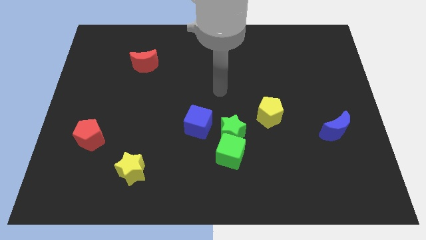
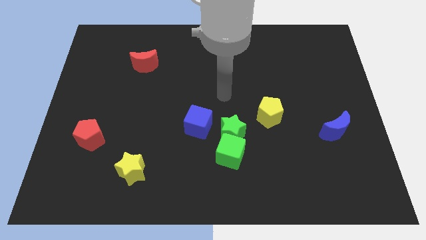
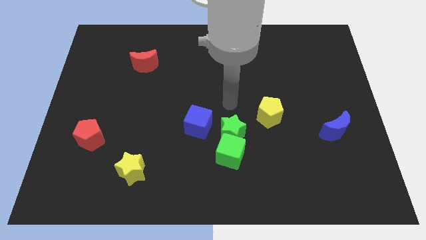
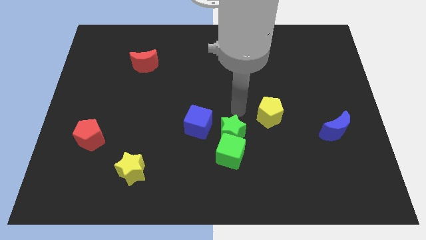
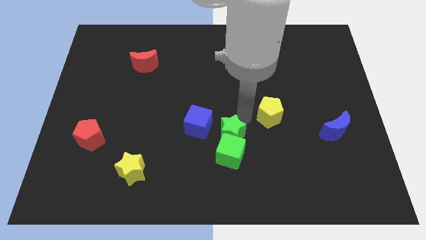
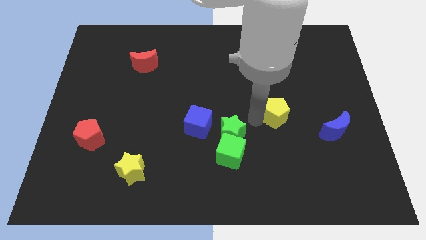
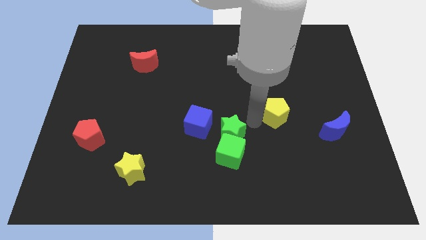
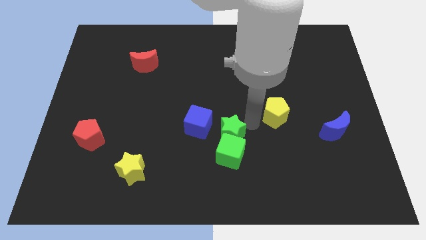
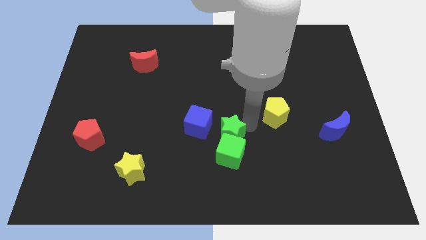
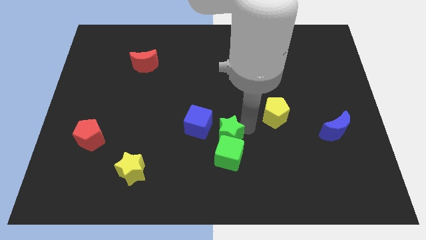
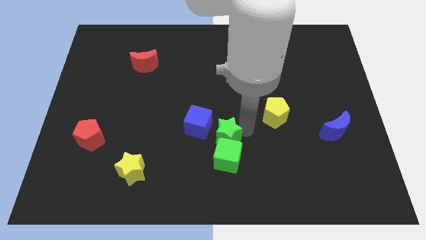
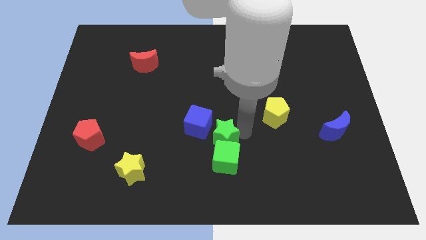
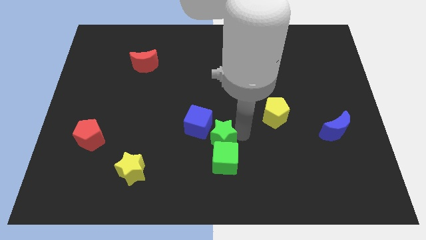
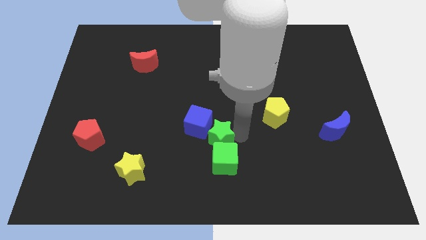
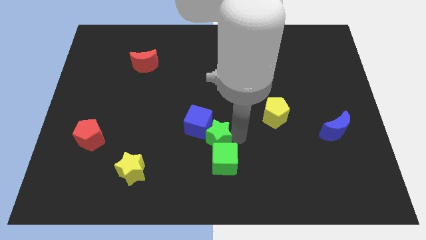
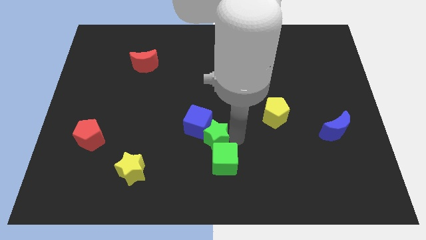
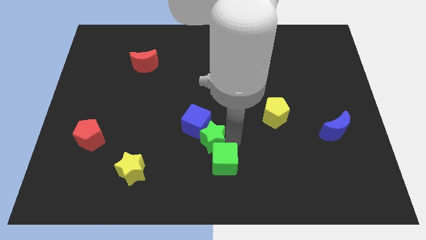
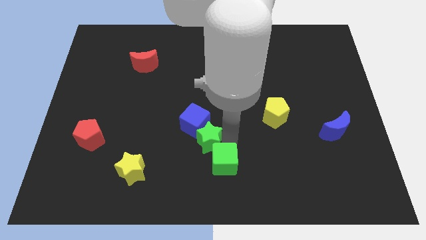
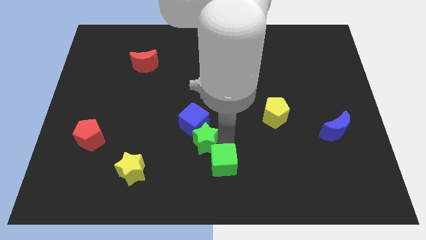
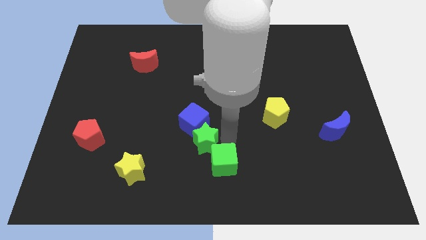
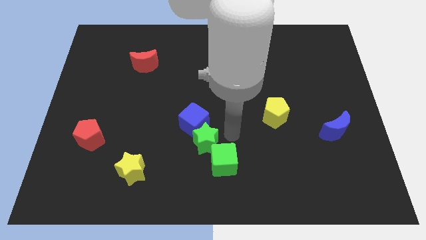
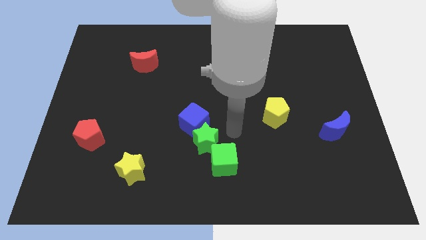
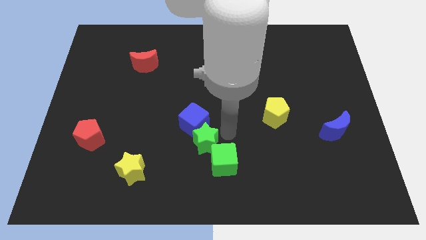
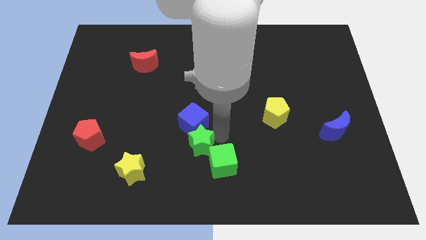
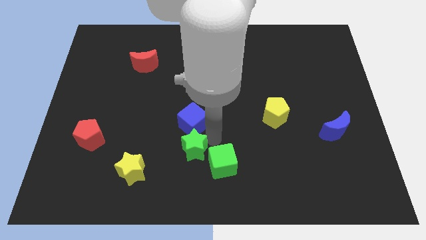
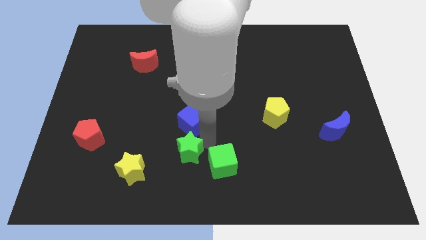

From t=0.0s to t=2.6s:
pull the green star apart from the green cube, blue cube, and yellow pentagon

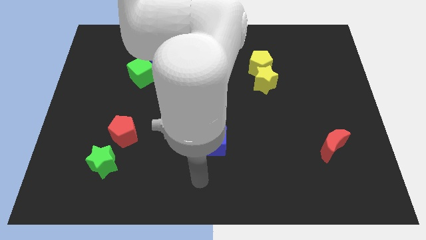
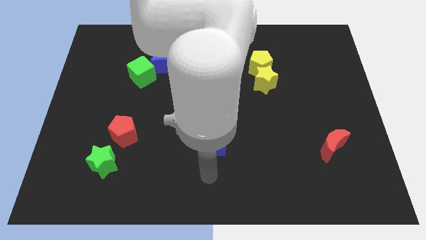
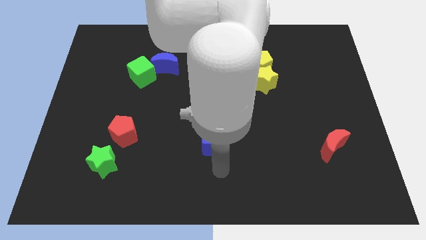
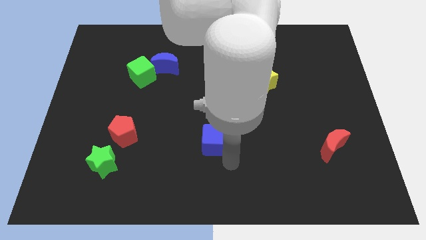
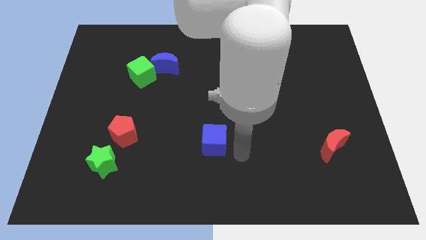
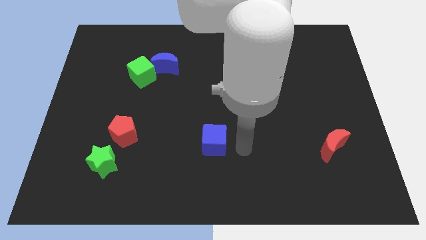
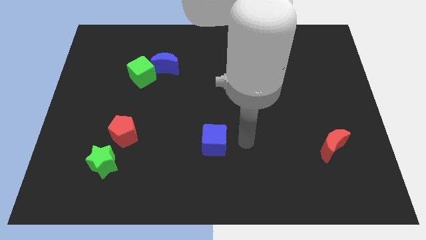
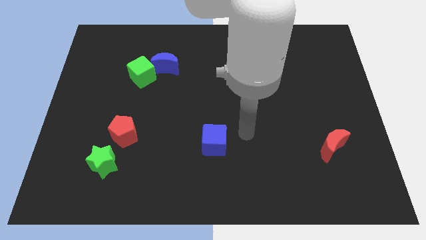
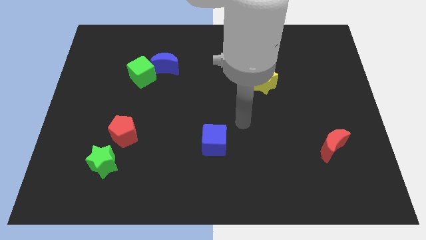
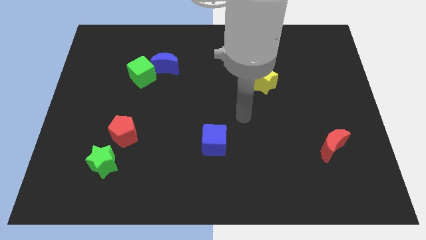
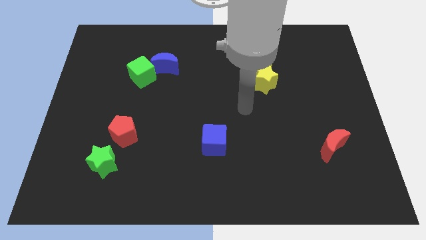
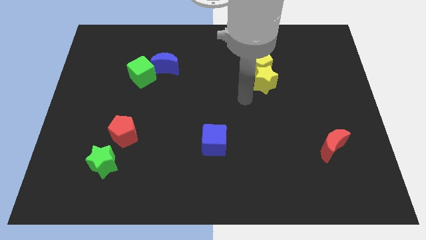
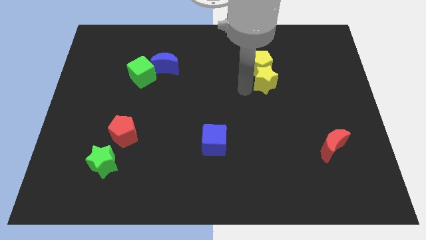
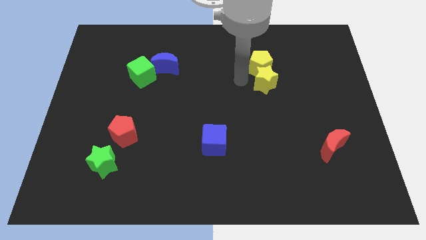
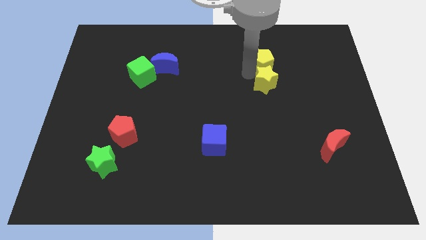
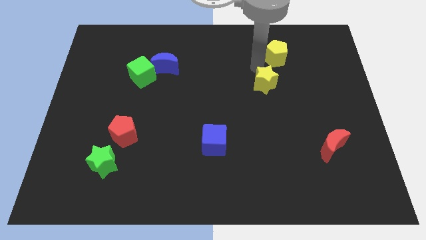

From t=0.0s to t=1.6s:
move the yellow star away from the yellow pentagon

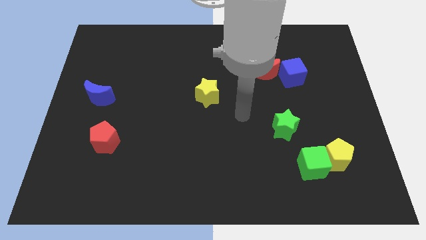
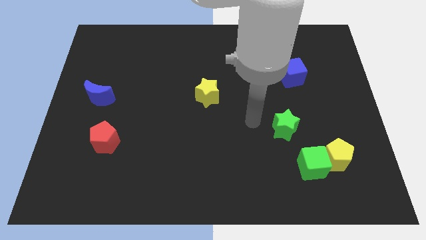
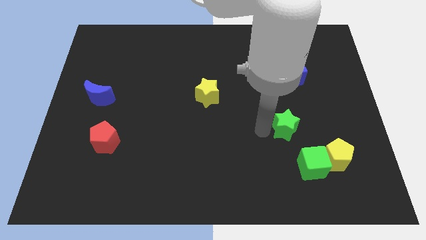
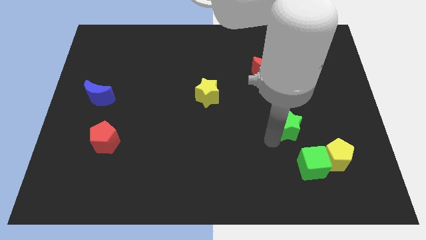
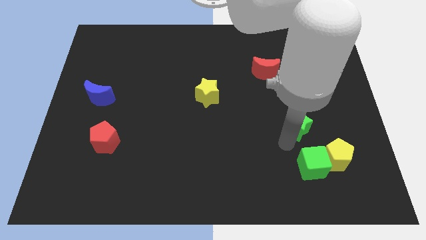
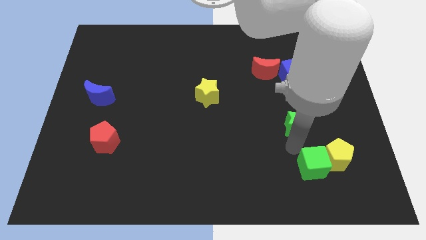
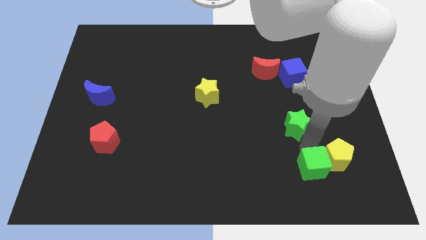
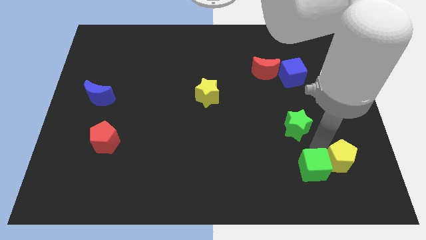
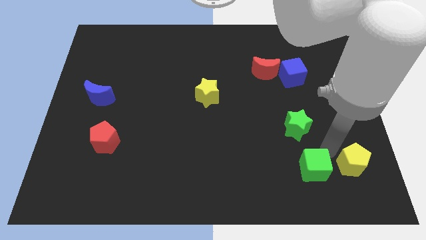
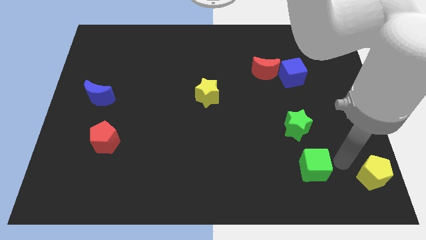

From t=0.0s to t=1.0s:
separate the green cube from the yellow pentagon

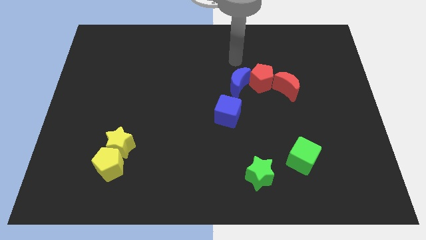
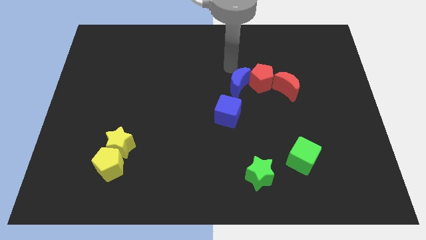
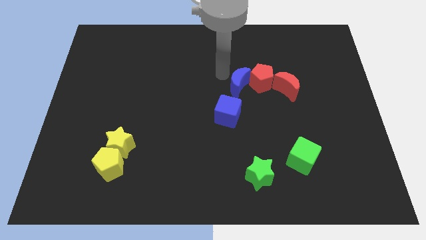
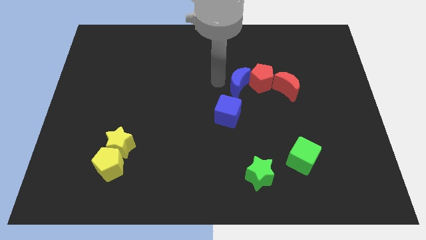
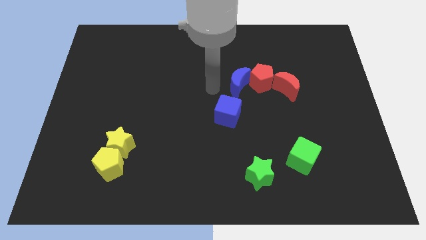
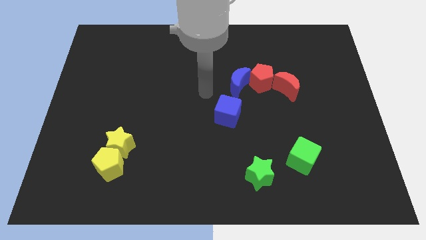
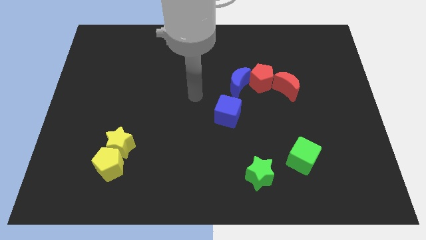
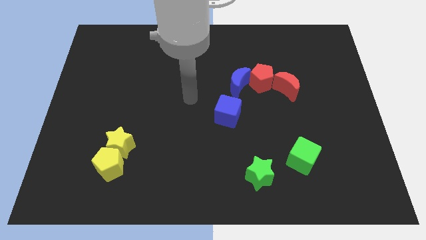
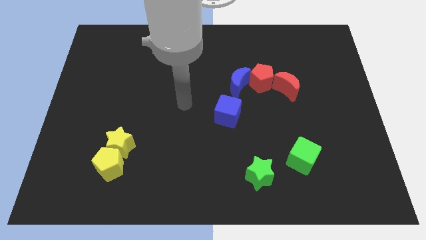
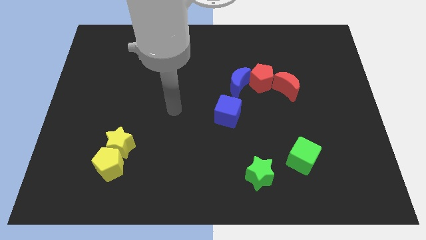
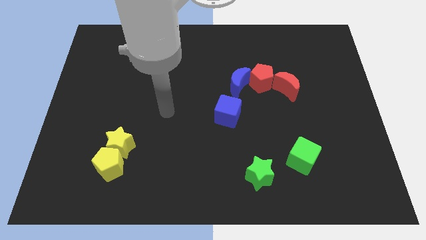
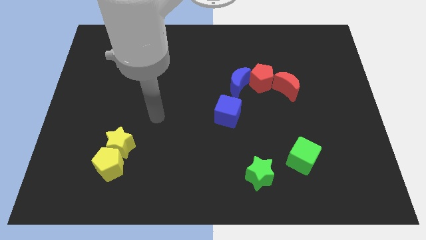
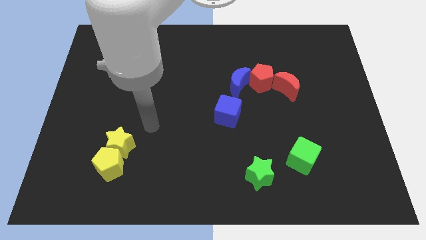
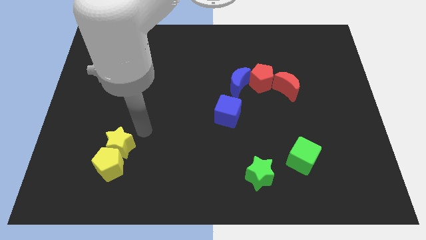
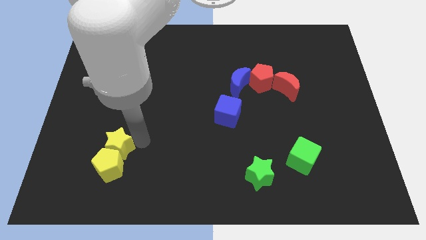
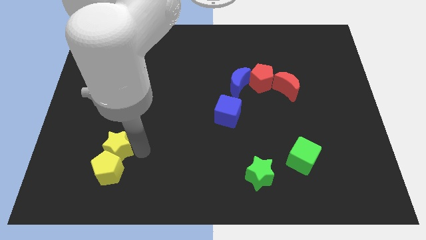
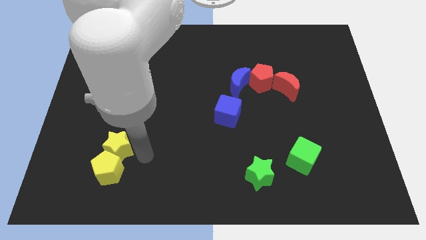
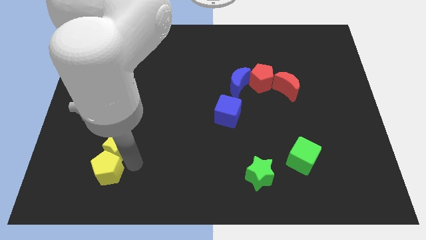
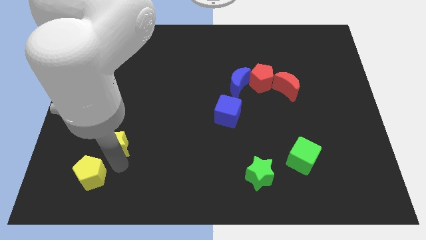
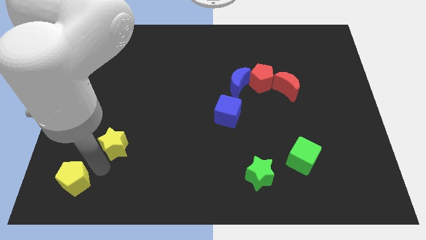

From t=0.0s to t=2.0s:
pull the yellow star apart from the yellow pentagon

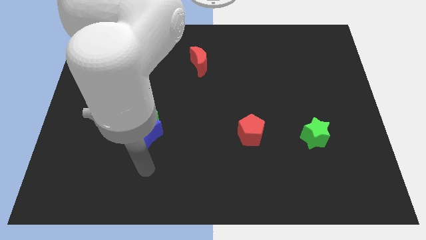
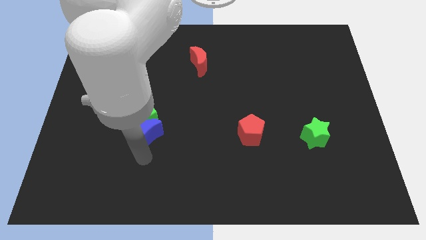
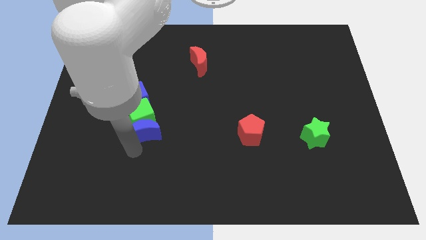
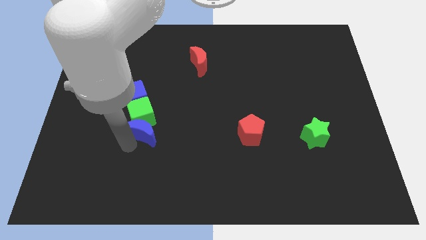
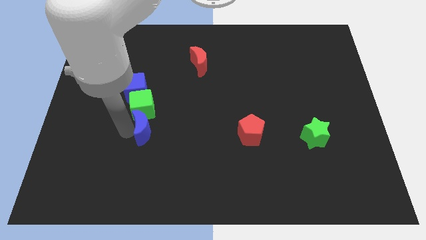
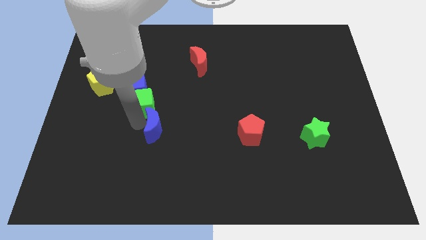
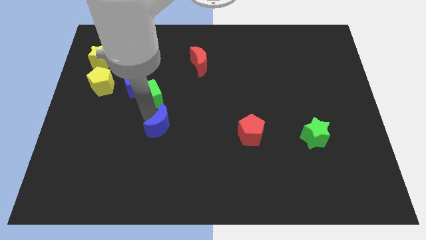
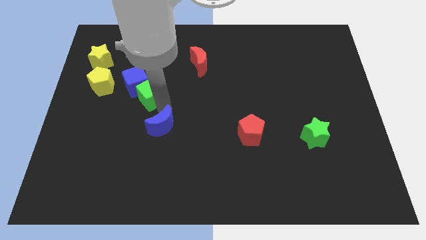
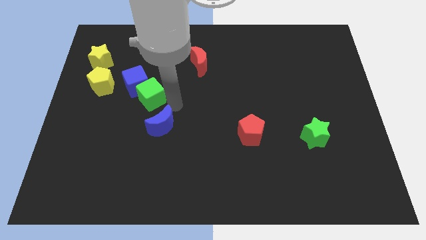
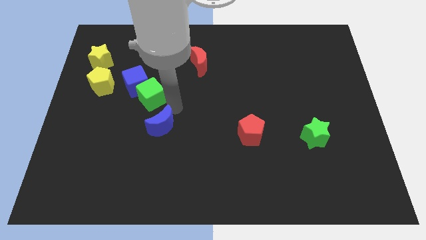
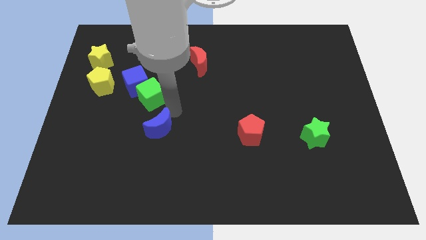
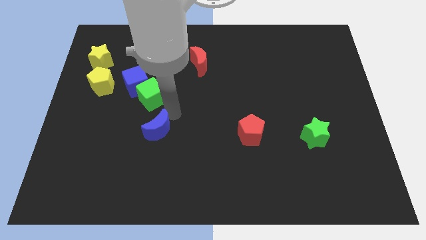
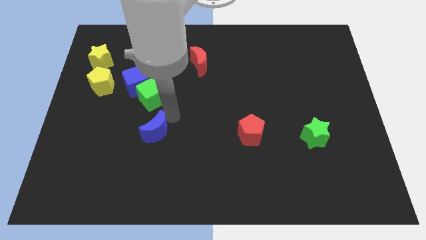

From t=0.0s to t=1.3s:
move the blue moon away from the green cube

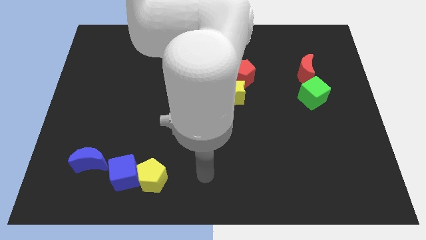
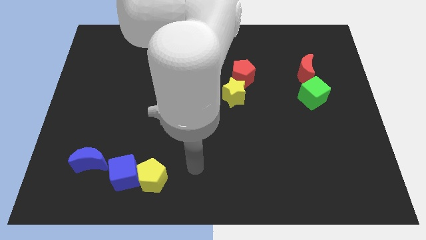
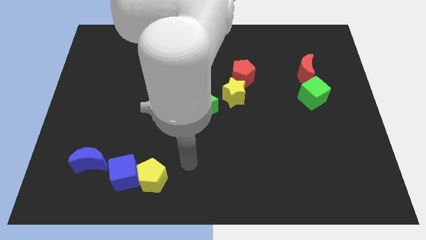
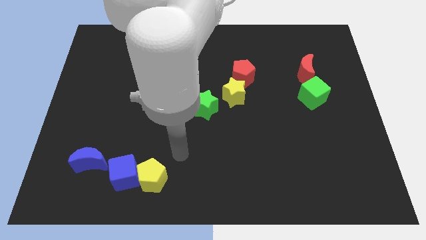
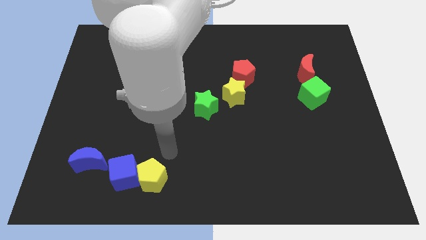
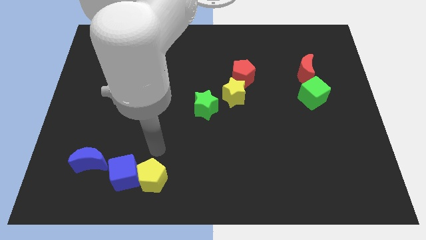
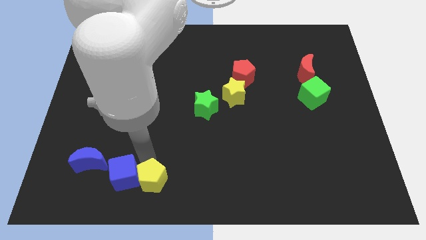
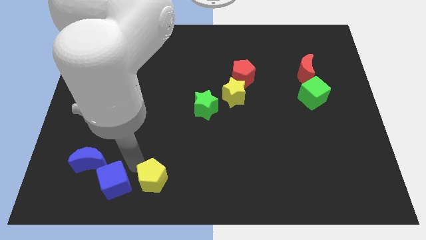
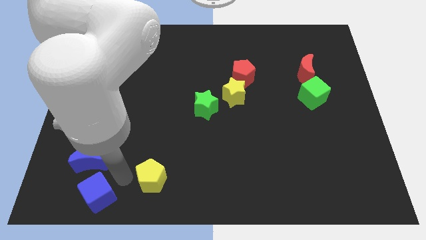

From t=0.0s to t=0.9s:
pull the yellow pentagon apart from the blue cube

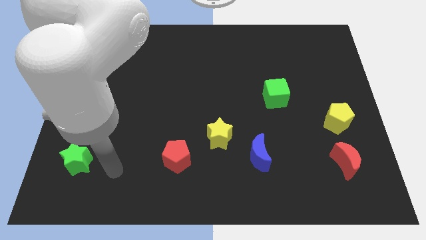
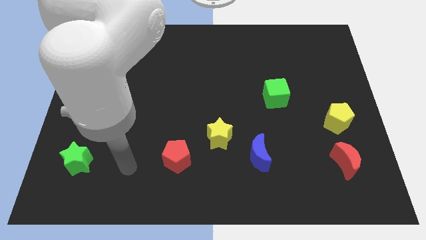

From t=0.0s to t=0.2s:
pull the blue moon apart from the yellow star
